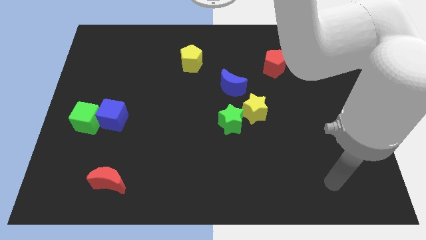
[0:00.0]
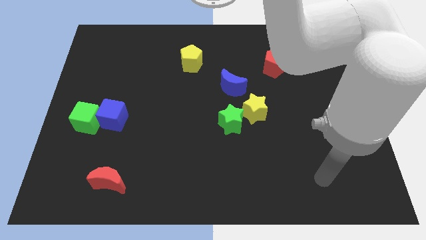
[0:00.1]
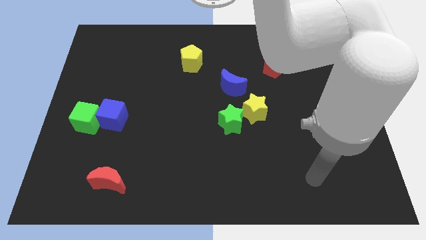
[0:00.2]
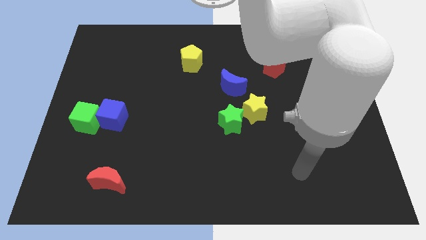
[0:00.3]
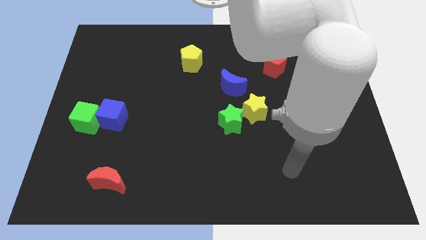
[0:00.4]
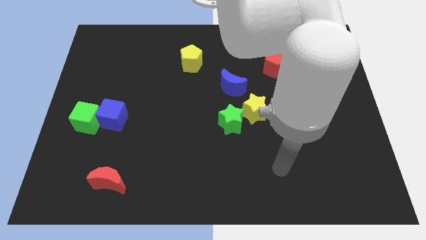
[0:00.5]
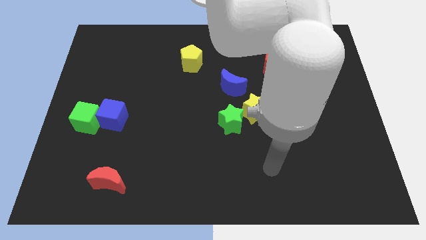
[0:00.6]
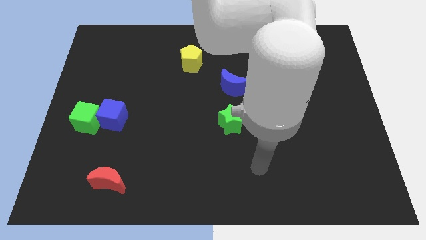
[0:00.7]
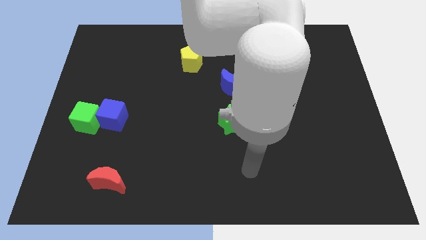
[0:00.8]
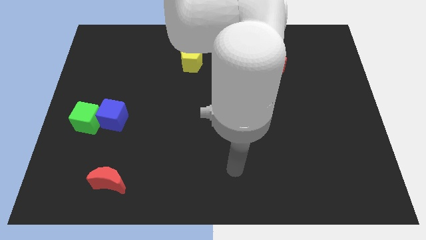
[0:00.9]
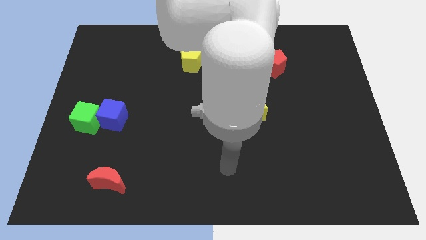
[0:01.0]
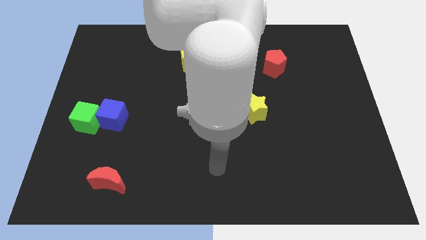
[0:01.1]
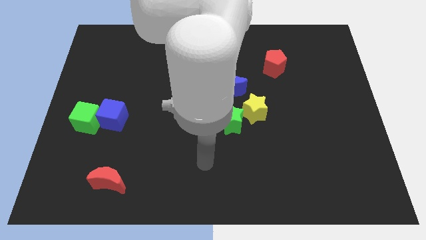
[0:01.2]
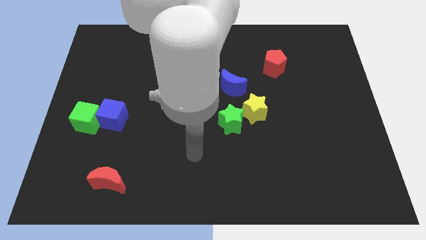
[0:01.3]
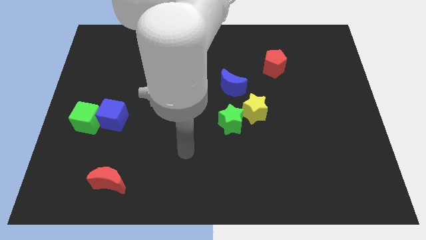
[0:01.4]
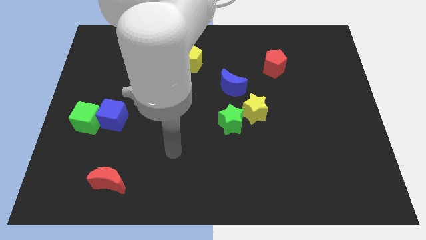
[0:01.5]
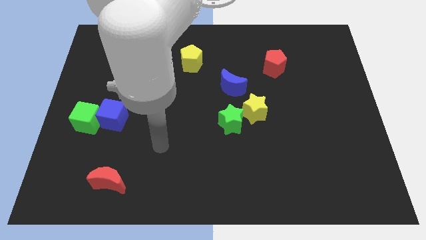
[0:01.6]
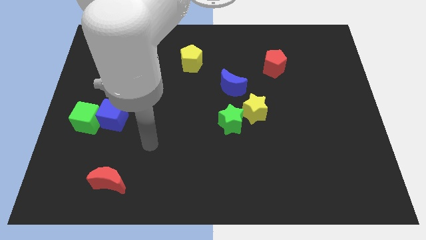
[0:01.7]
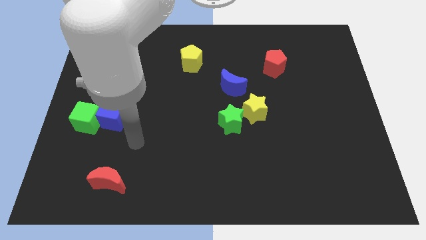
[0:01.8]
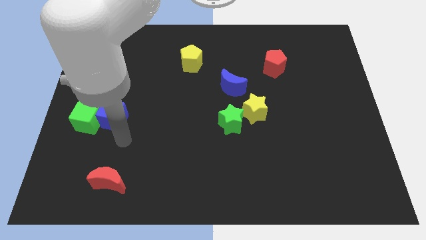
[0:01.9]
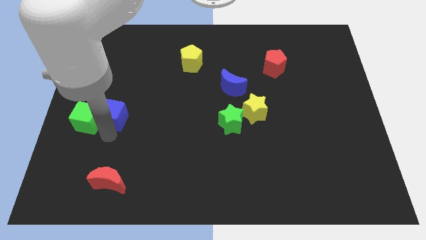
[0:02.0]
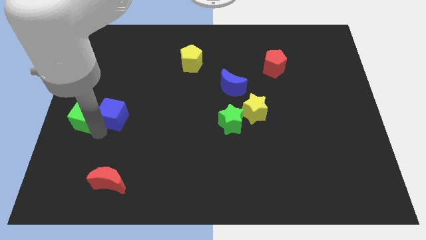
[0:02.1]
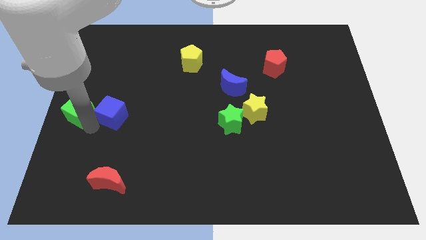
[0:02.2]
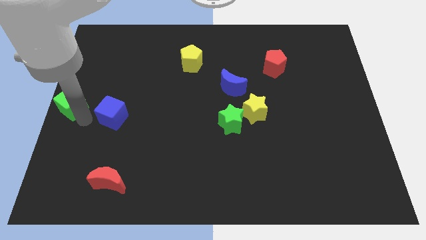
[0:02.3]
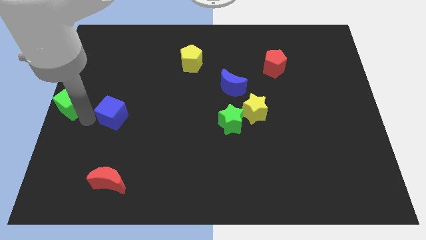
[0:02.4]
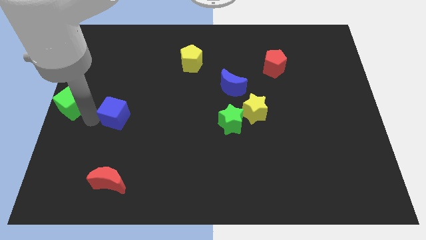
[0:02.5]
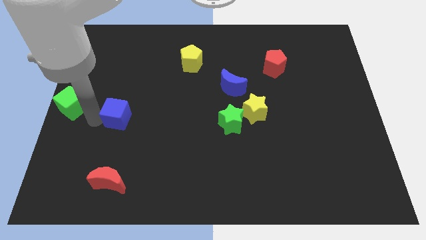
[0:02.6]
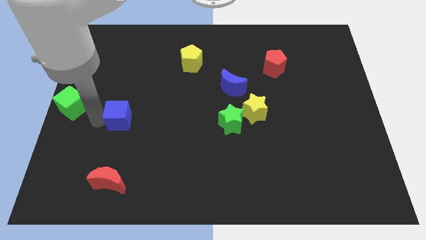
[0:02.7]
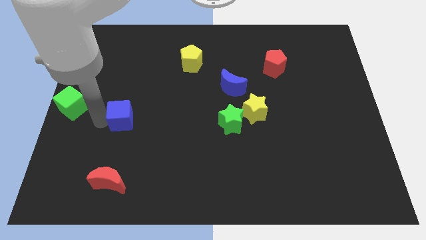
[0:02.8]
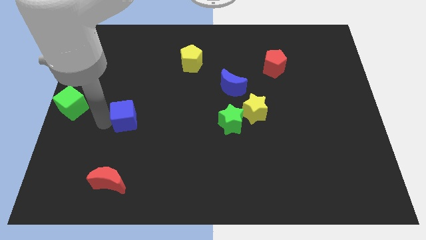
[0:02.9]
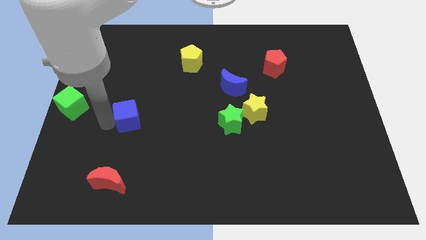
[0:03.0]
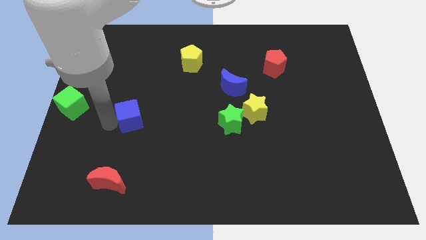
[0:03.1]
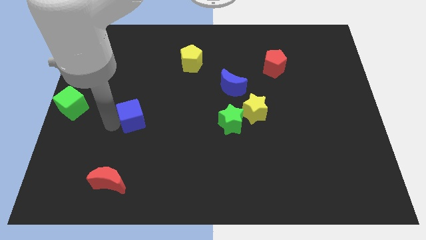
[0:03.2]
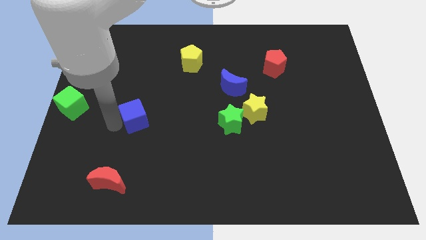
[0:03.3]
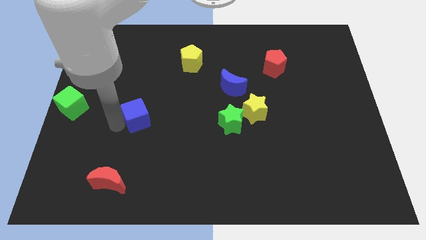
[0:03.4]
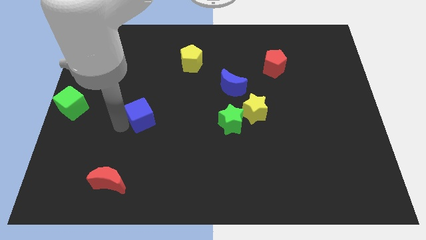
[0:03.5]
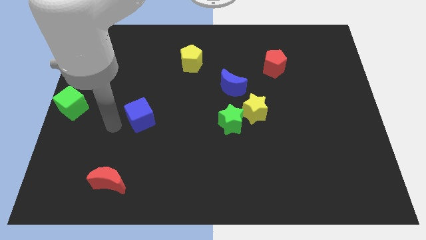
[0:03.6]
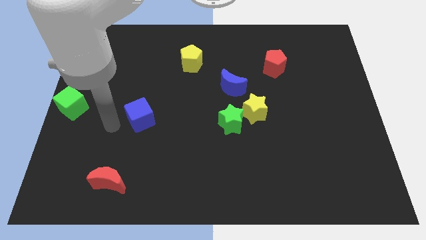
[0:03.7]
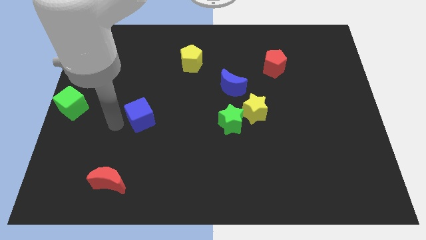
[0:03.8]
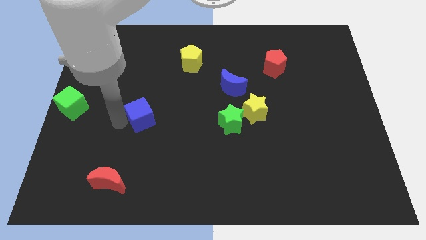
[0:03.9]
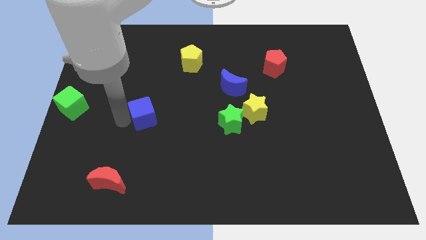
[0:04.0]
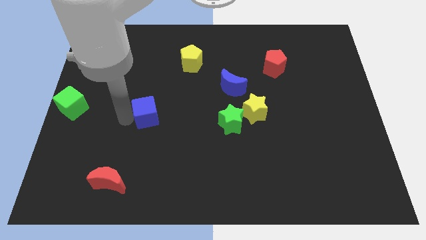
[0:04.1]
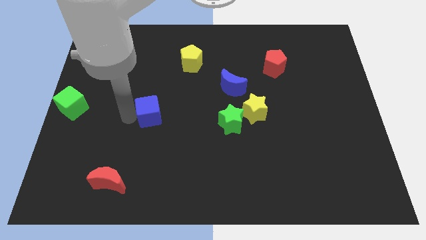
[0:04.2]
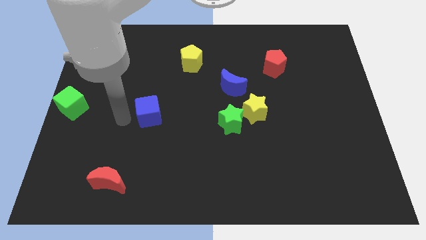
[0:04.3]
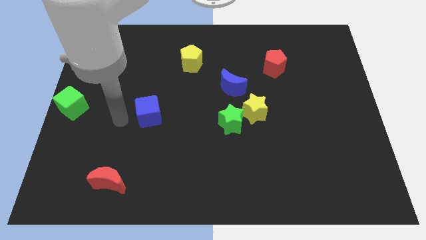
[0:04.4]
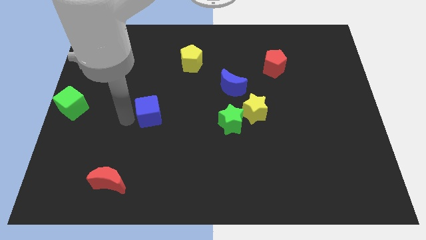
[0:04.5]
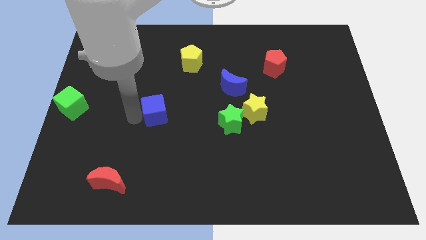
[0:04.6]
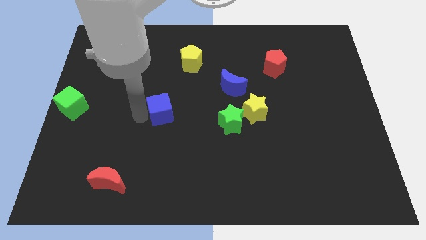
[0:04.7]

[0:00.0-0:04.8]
push the blue cube to the center

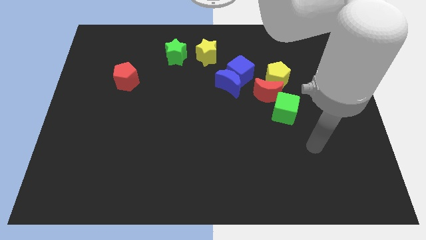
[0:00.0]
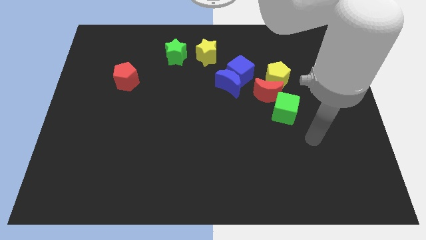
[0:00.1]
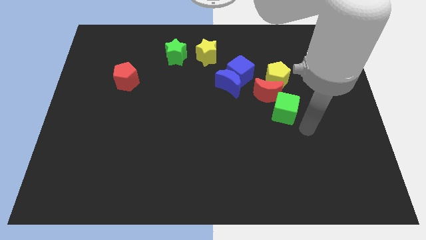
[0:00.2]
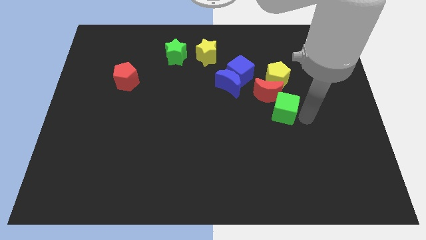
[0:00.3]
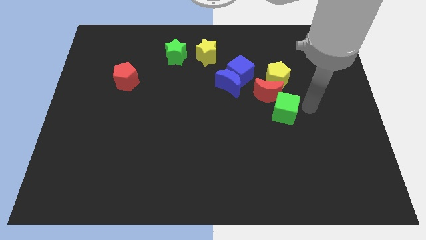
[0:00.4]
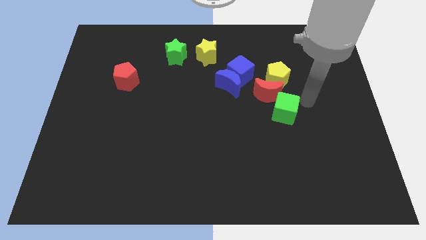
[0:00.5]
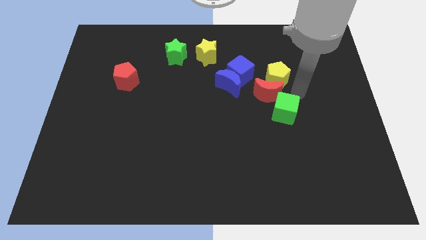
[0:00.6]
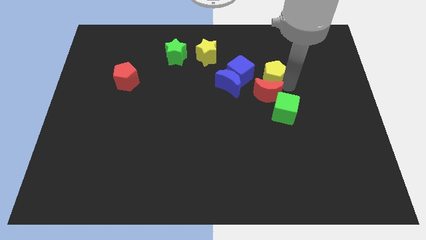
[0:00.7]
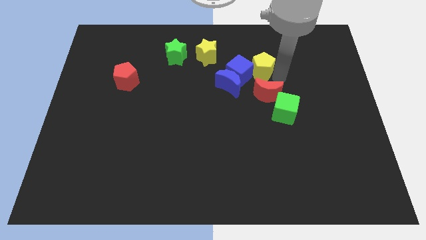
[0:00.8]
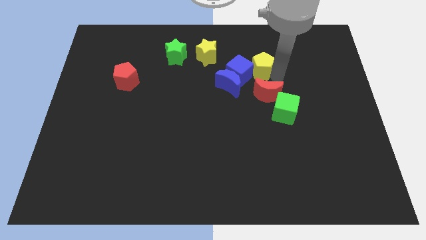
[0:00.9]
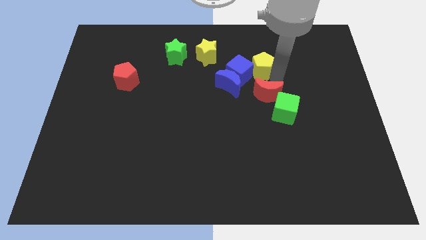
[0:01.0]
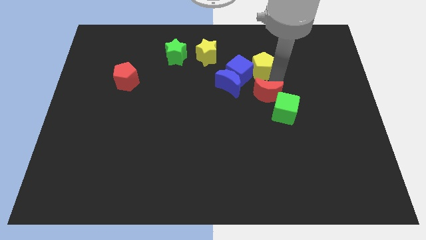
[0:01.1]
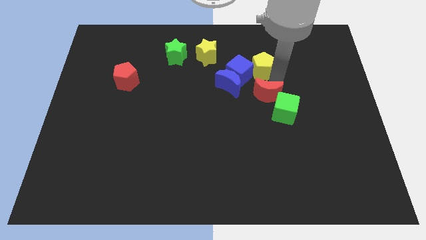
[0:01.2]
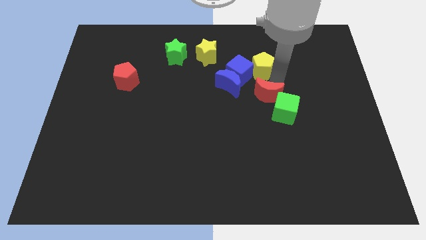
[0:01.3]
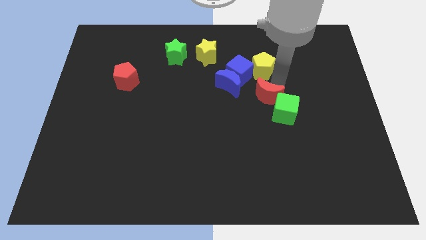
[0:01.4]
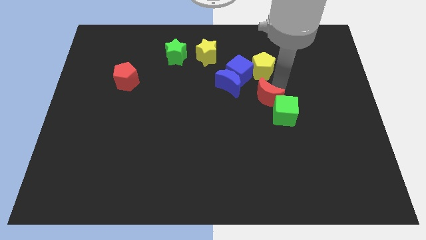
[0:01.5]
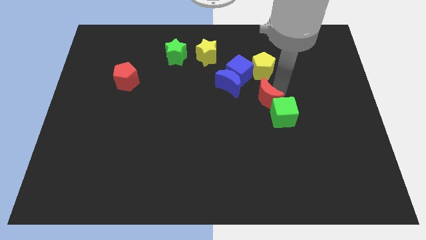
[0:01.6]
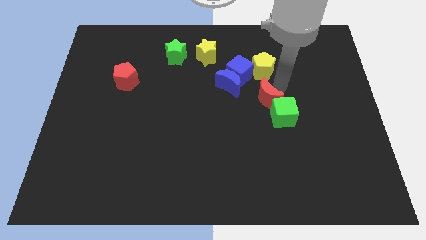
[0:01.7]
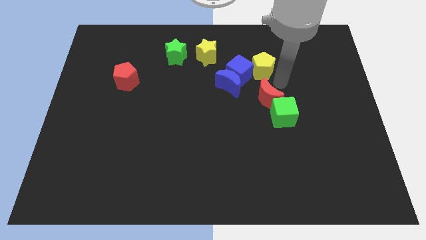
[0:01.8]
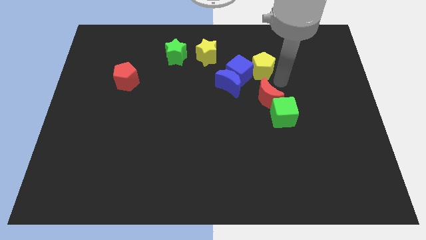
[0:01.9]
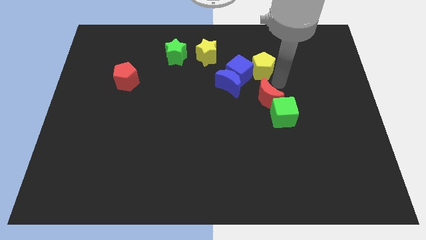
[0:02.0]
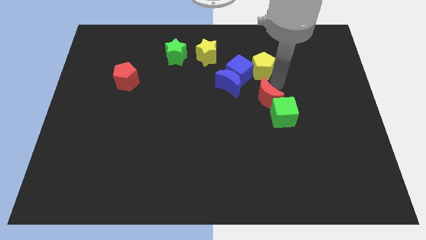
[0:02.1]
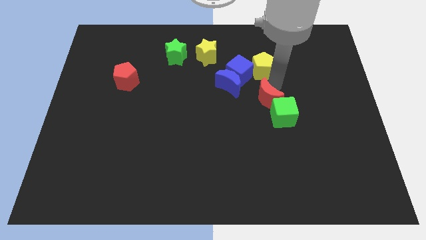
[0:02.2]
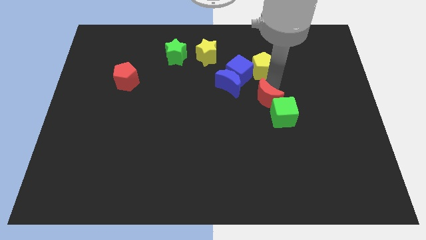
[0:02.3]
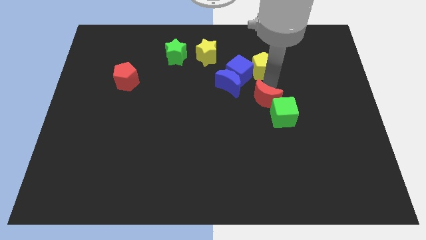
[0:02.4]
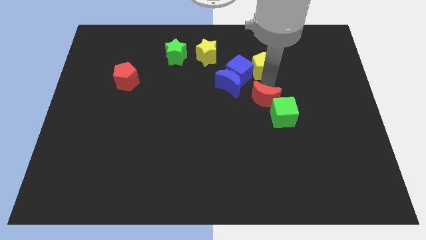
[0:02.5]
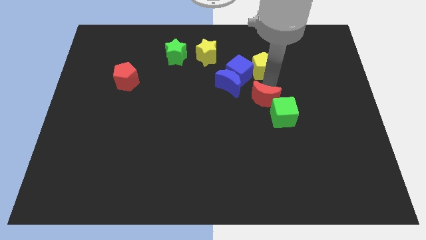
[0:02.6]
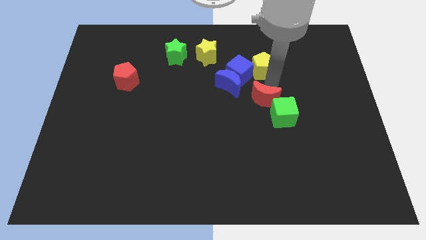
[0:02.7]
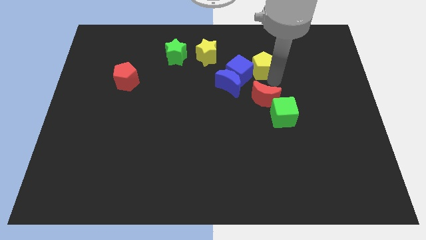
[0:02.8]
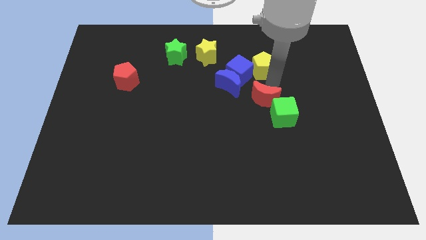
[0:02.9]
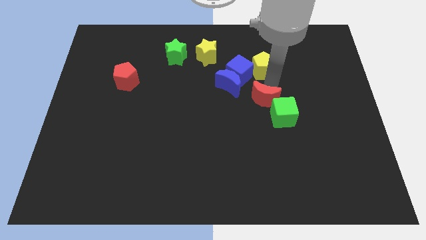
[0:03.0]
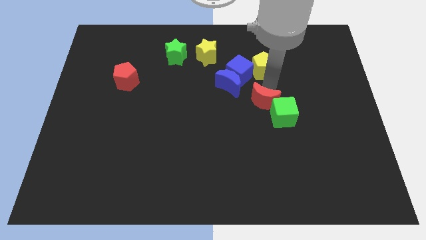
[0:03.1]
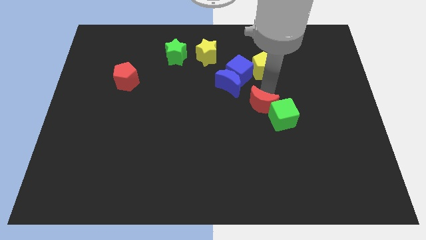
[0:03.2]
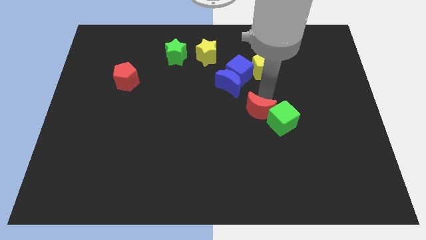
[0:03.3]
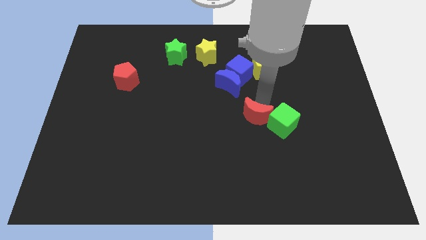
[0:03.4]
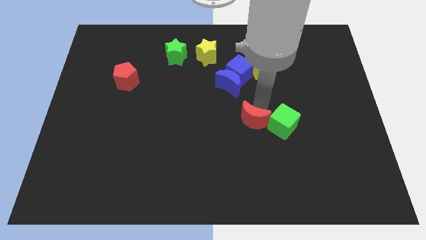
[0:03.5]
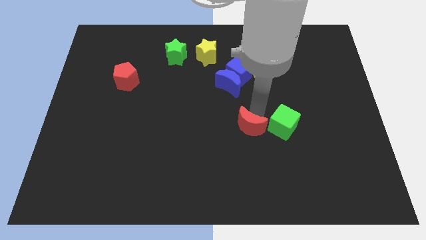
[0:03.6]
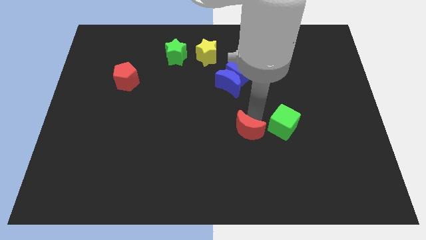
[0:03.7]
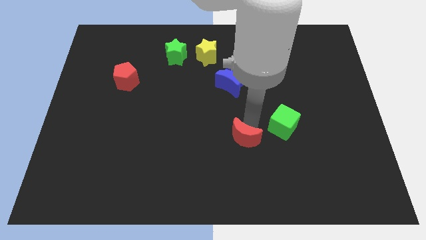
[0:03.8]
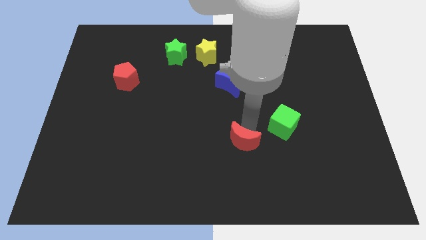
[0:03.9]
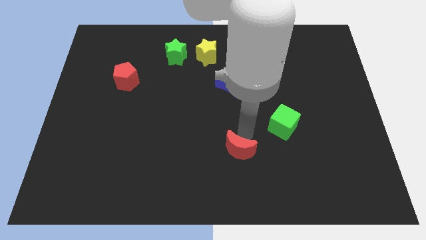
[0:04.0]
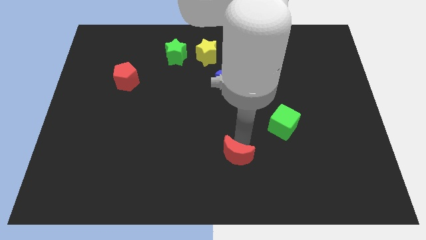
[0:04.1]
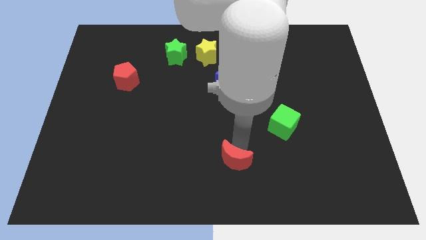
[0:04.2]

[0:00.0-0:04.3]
move the red moon to the bottom side
